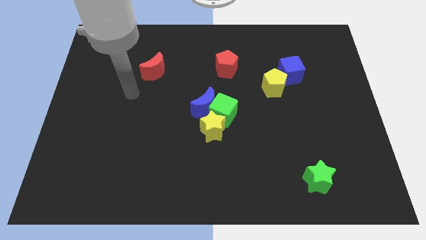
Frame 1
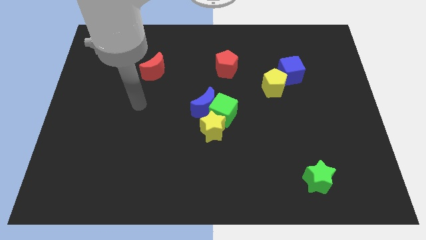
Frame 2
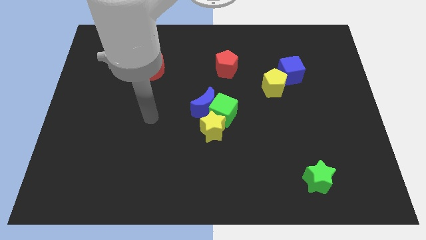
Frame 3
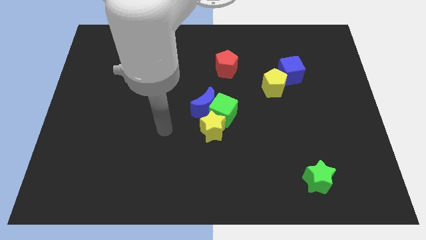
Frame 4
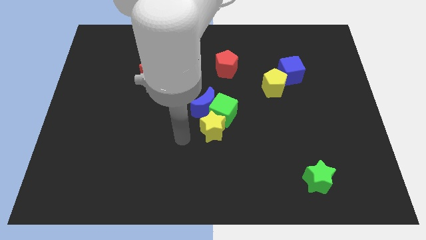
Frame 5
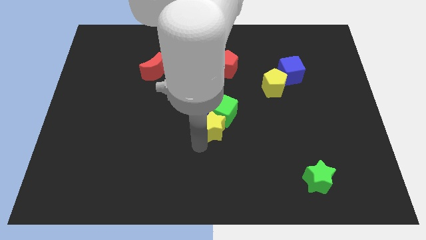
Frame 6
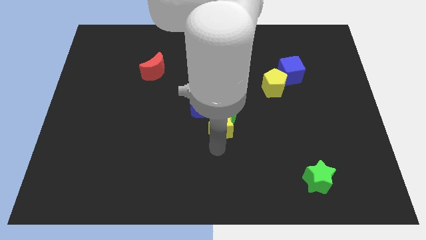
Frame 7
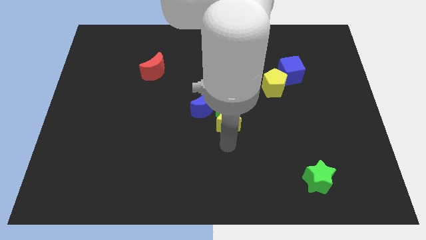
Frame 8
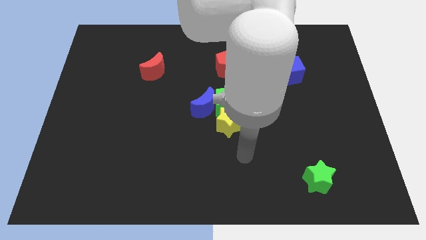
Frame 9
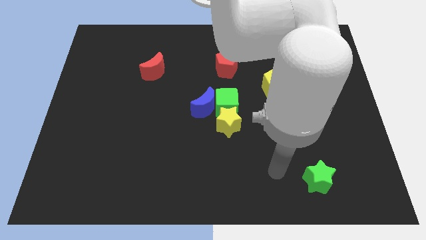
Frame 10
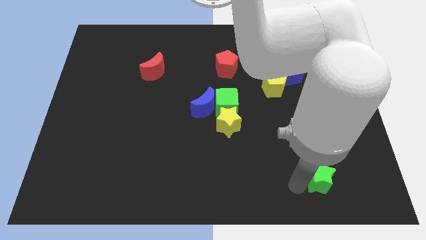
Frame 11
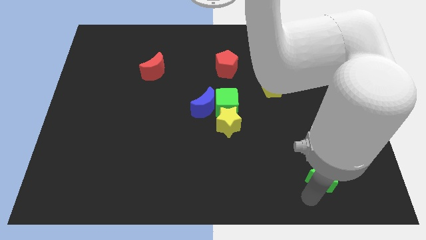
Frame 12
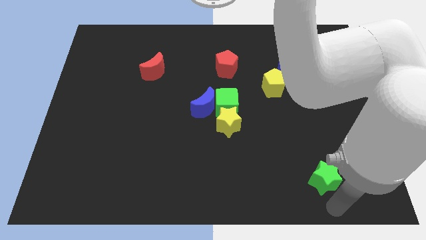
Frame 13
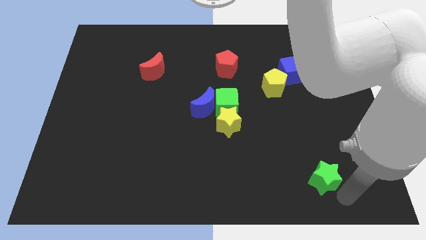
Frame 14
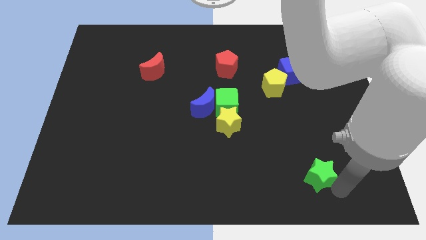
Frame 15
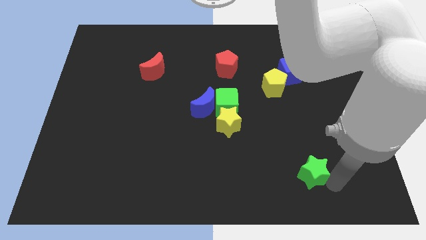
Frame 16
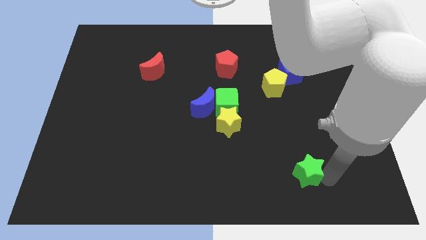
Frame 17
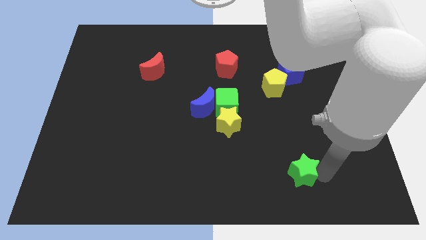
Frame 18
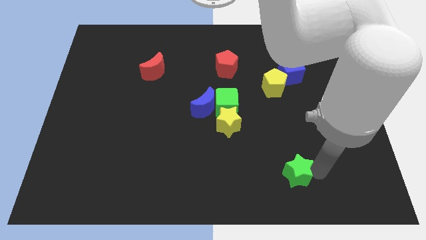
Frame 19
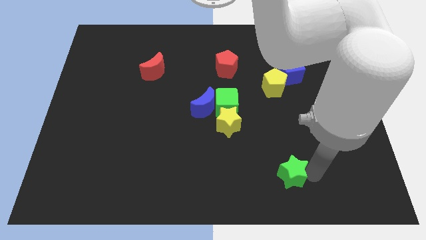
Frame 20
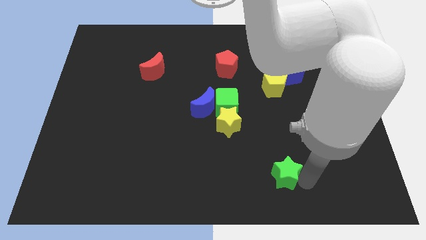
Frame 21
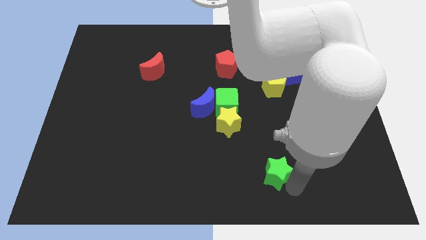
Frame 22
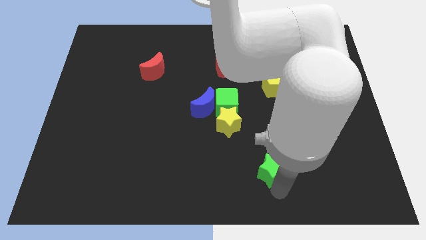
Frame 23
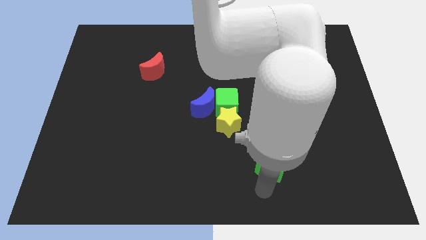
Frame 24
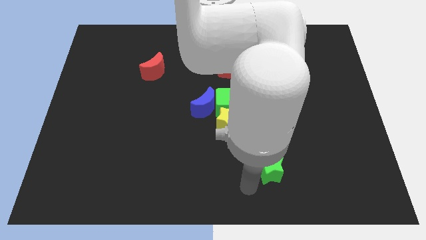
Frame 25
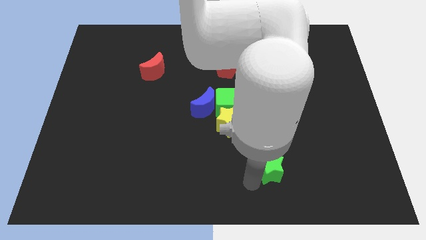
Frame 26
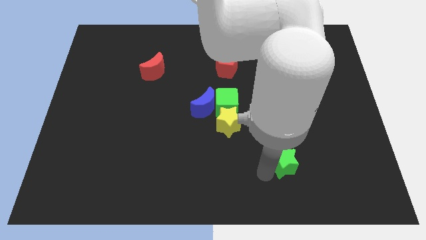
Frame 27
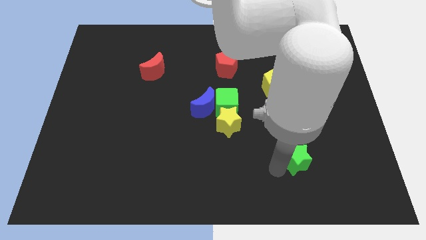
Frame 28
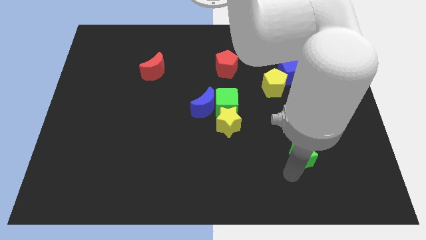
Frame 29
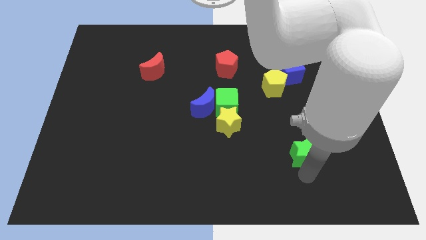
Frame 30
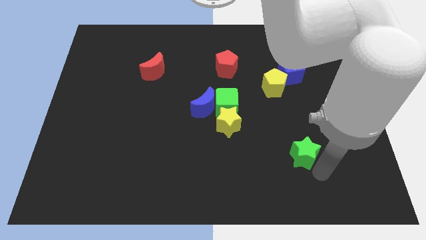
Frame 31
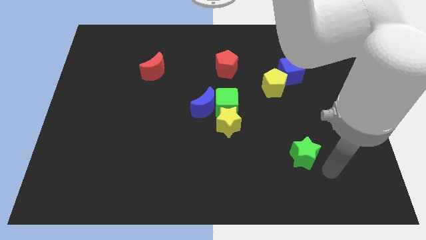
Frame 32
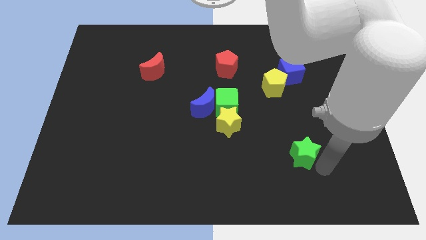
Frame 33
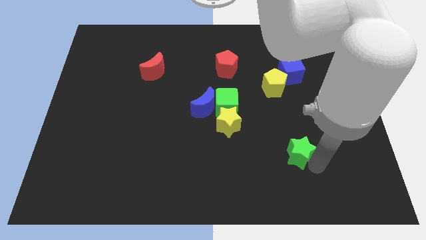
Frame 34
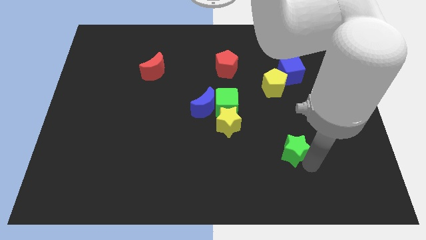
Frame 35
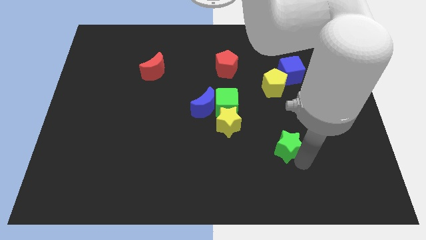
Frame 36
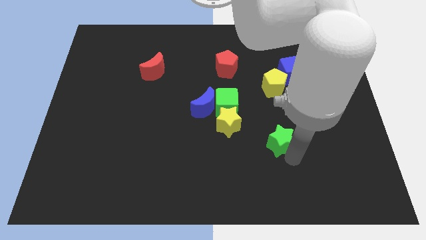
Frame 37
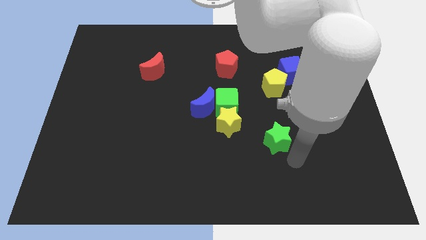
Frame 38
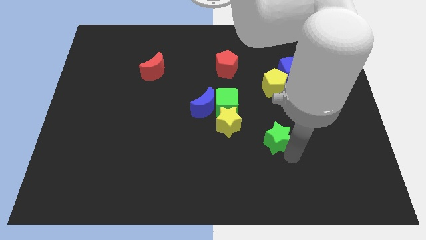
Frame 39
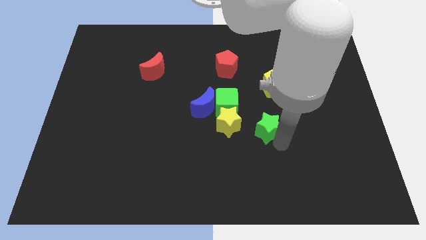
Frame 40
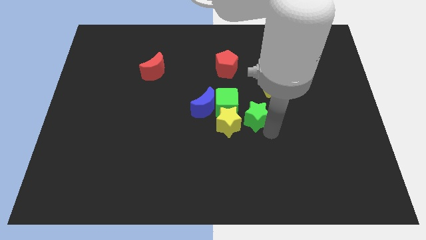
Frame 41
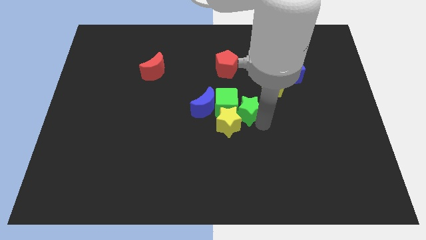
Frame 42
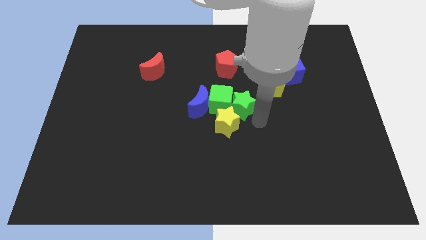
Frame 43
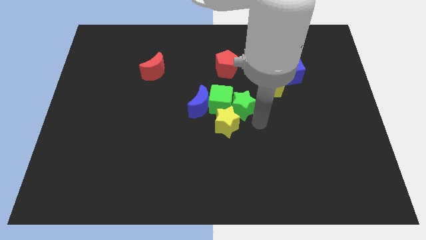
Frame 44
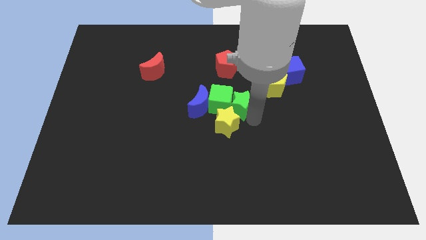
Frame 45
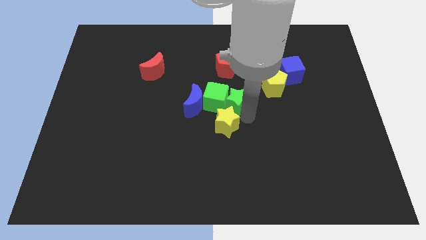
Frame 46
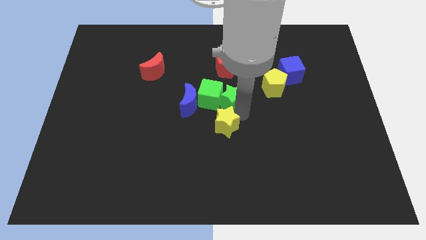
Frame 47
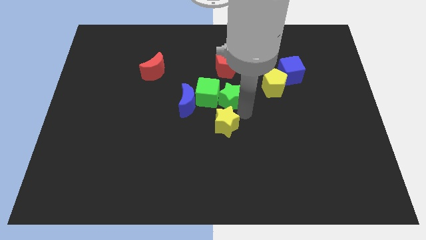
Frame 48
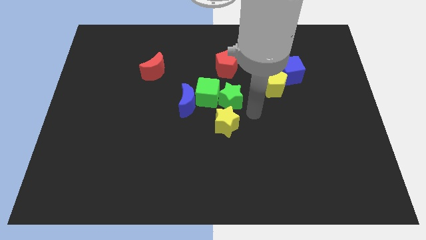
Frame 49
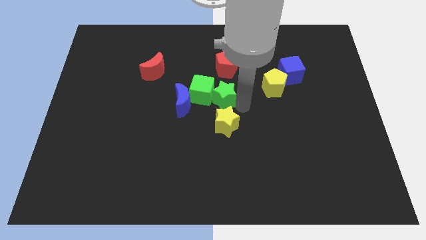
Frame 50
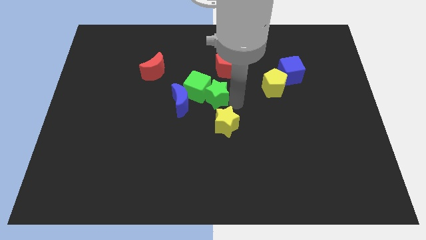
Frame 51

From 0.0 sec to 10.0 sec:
push the green star diagonally up and to the right of the blue moon

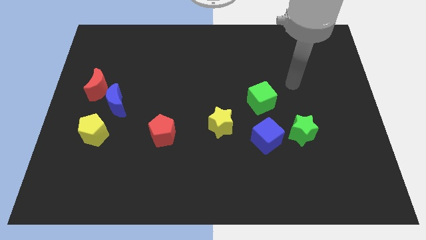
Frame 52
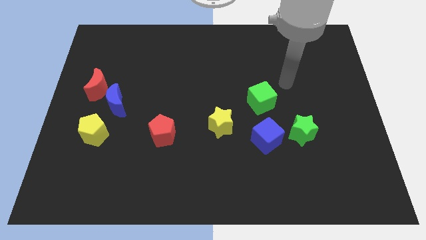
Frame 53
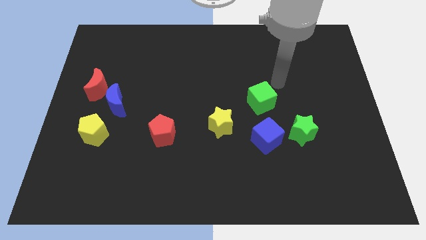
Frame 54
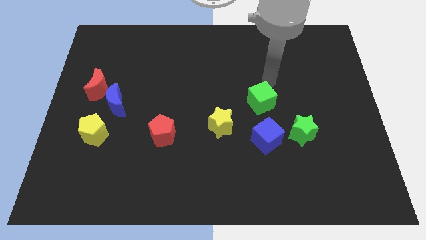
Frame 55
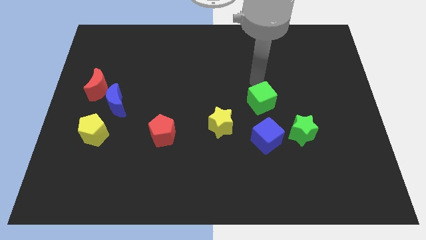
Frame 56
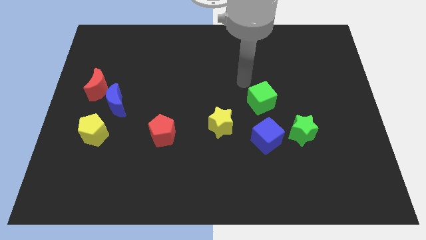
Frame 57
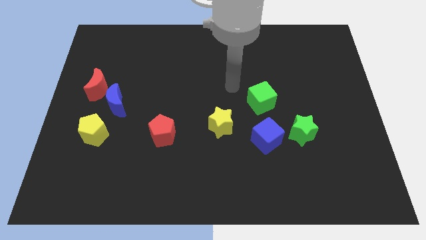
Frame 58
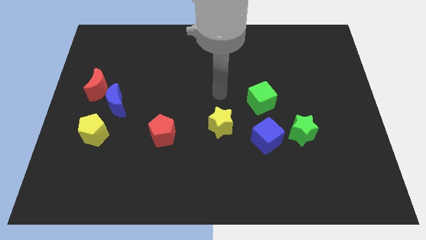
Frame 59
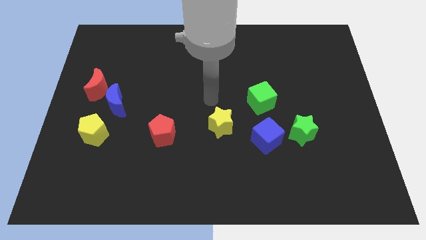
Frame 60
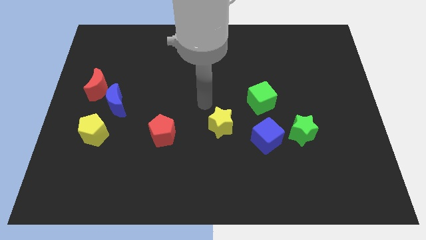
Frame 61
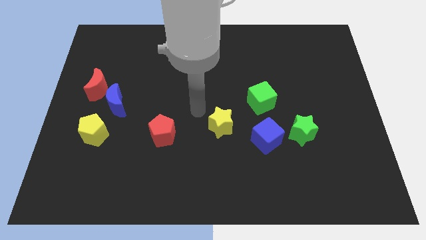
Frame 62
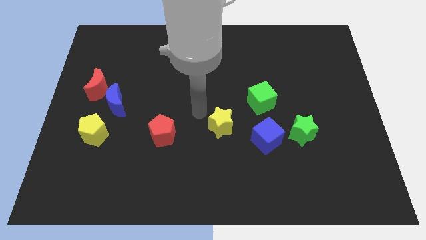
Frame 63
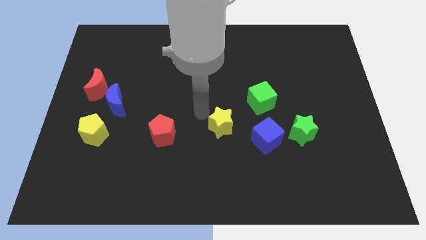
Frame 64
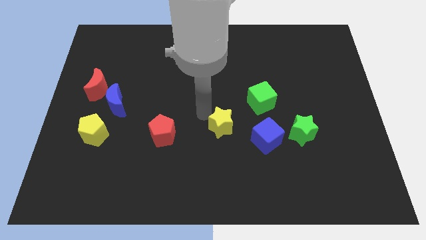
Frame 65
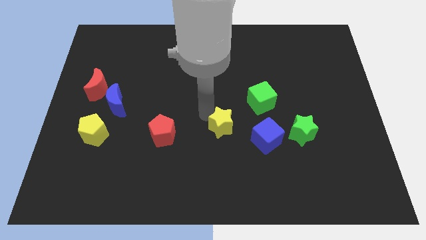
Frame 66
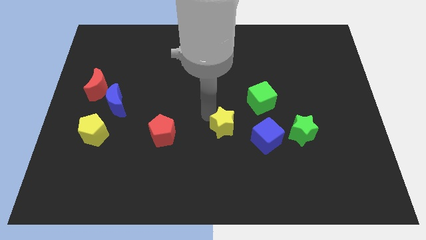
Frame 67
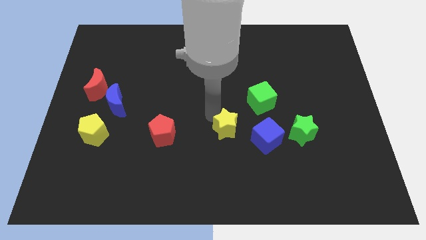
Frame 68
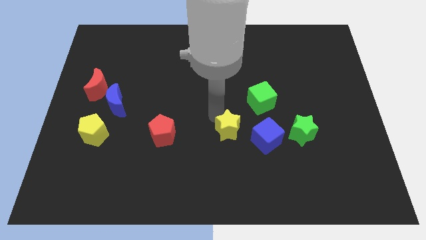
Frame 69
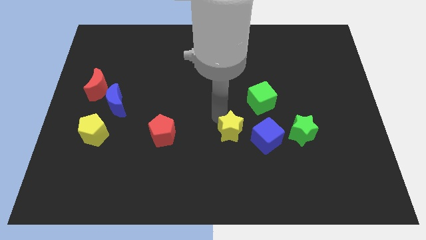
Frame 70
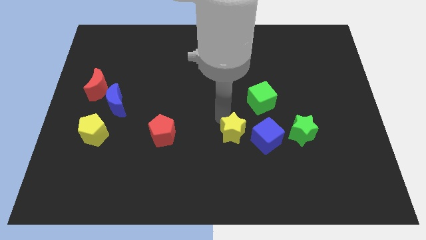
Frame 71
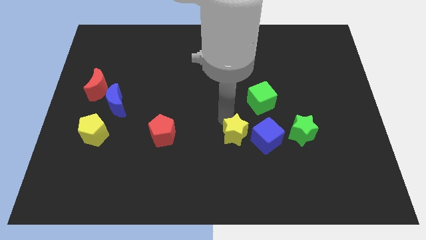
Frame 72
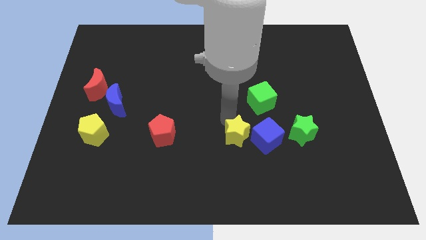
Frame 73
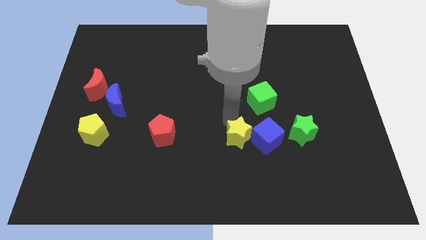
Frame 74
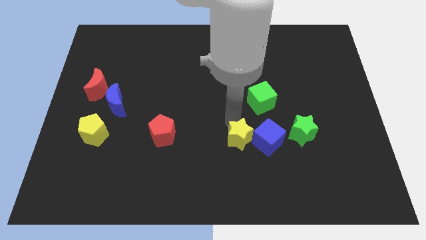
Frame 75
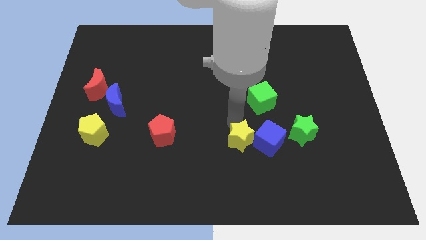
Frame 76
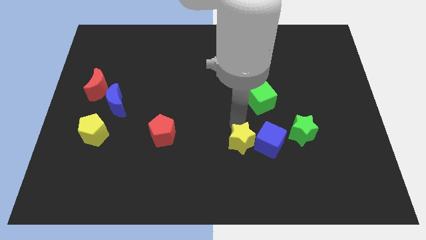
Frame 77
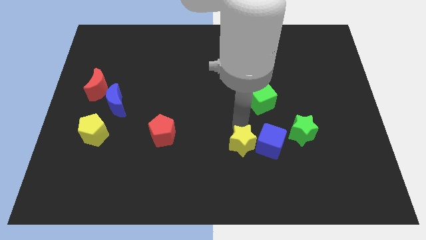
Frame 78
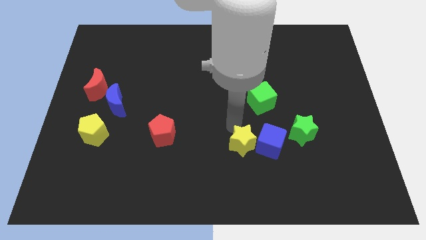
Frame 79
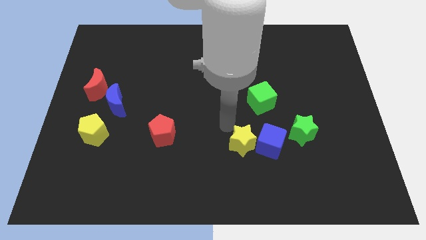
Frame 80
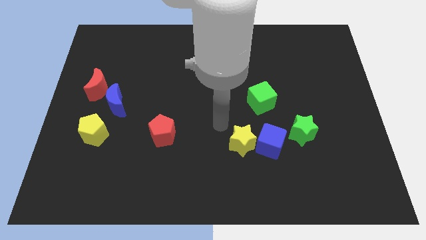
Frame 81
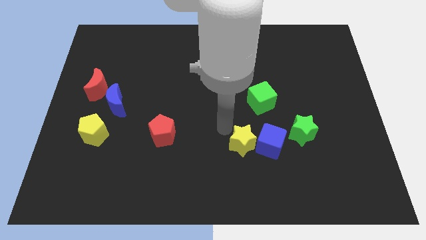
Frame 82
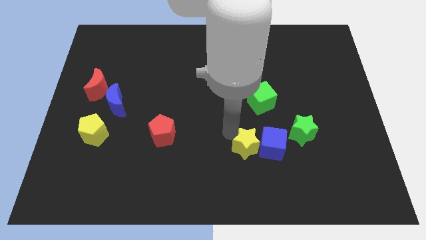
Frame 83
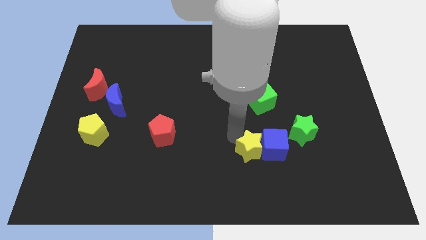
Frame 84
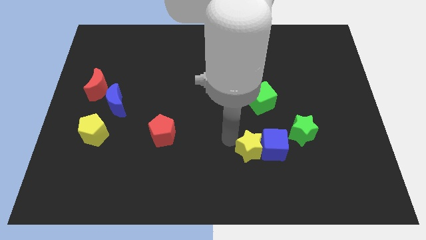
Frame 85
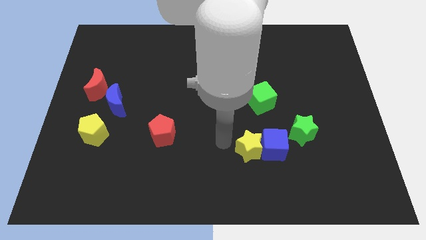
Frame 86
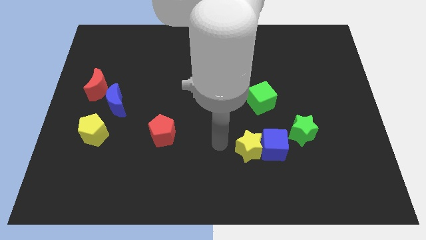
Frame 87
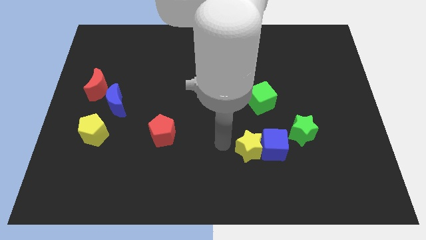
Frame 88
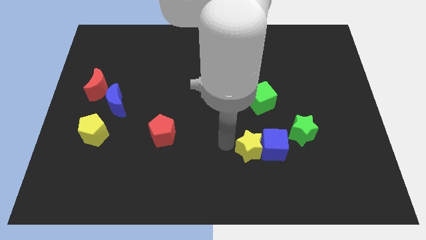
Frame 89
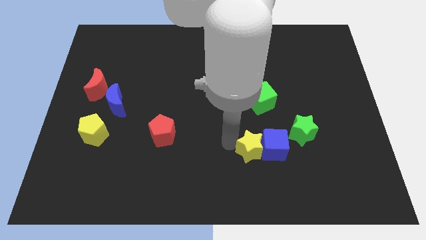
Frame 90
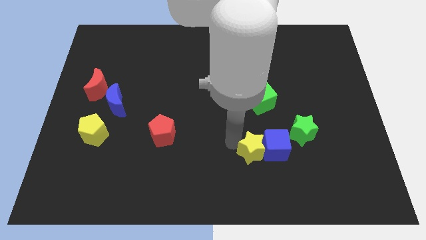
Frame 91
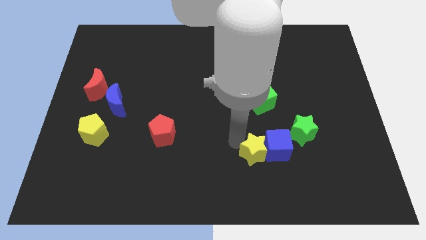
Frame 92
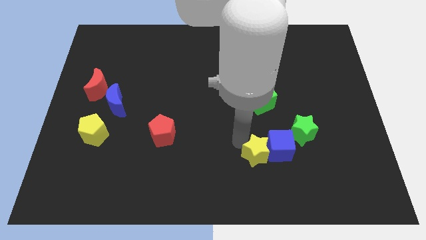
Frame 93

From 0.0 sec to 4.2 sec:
move the yellow star to the bottom left side of the green star
